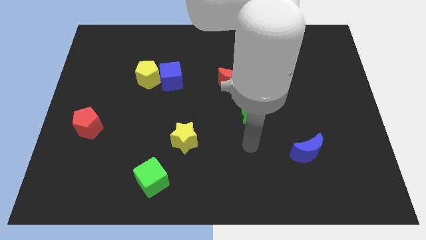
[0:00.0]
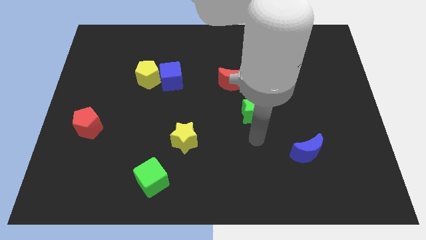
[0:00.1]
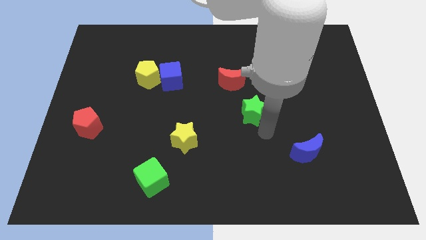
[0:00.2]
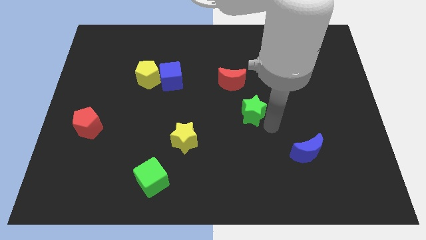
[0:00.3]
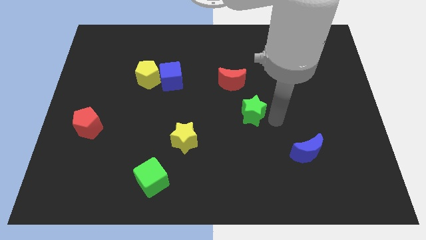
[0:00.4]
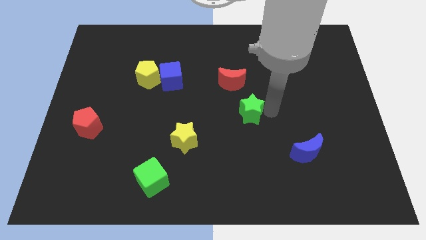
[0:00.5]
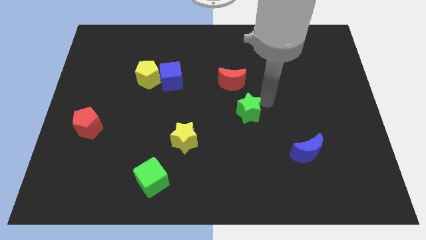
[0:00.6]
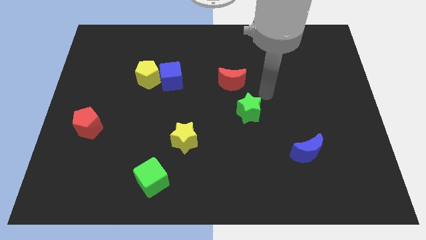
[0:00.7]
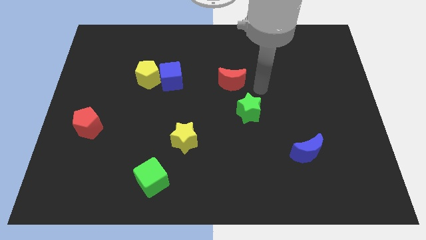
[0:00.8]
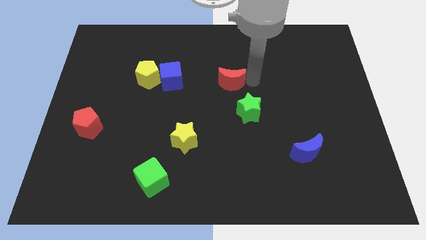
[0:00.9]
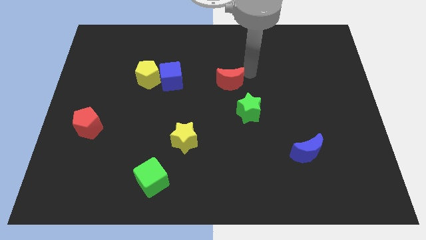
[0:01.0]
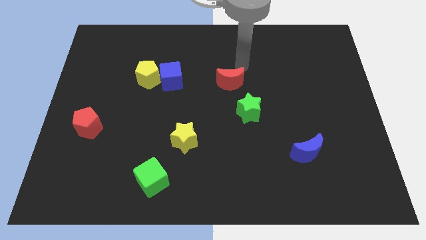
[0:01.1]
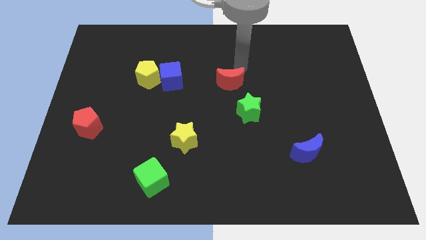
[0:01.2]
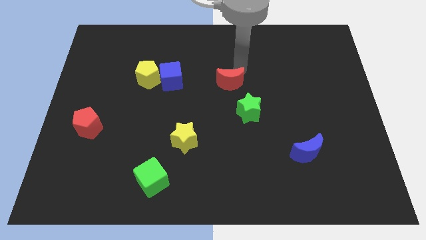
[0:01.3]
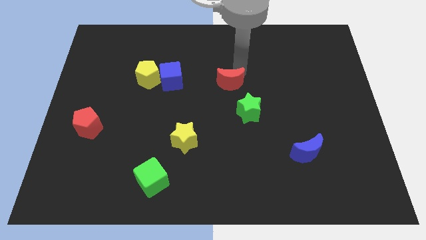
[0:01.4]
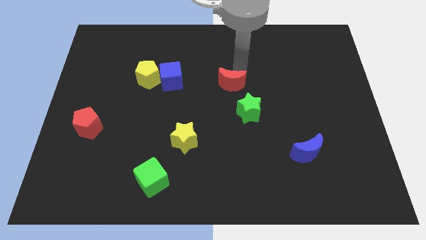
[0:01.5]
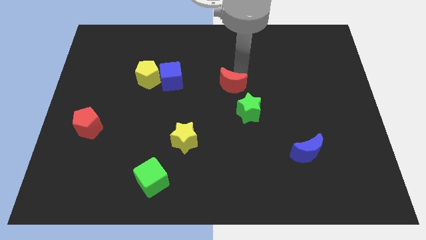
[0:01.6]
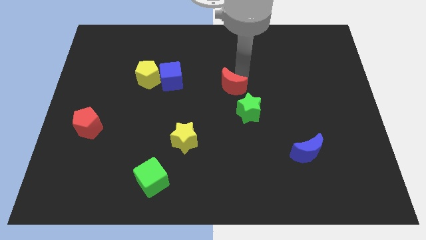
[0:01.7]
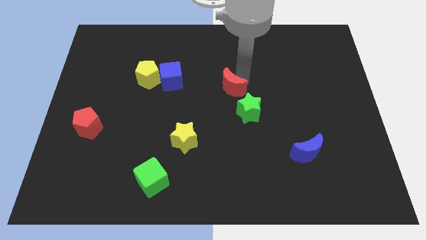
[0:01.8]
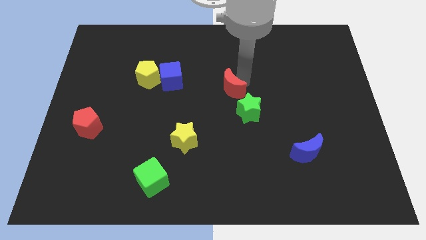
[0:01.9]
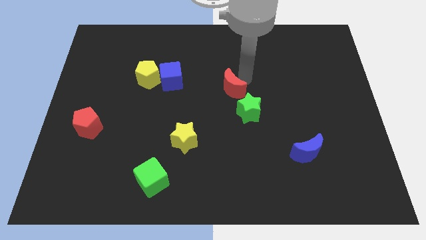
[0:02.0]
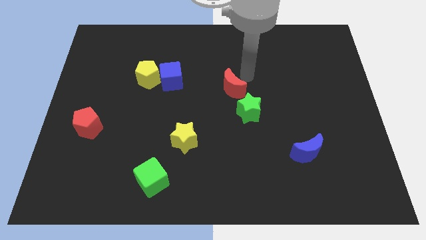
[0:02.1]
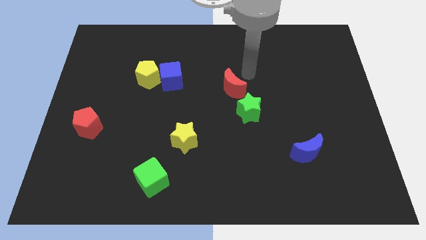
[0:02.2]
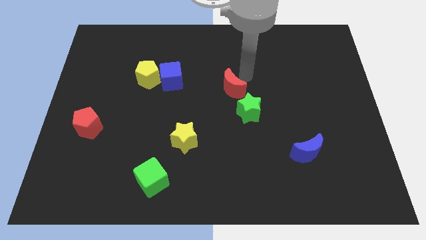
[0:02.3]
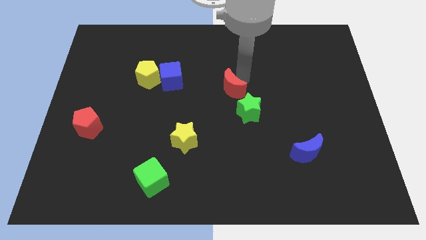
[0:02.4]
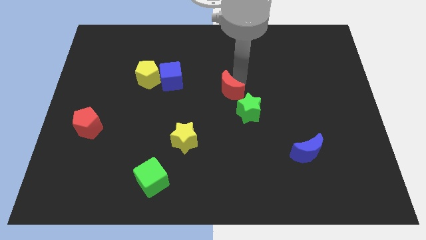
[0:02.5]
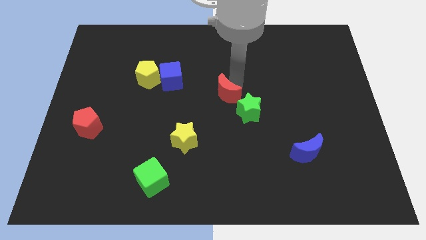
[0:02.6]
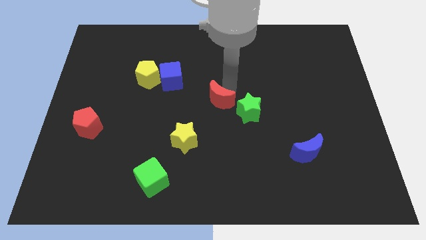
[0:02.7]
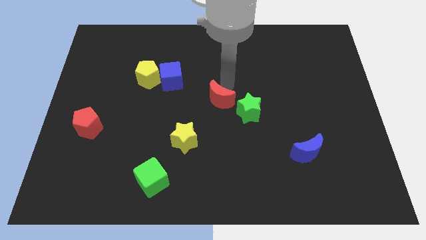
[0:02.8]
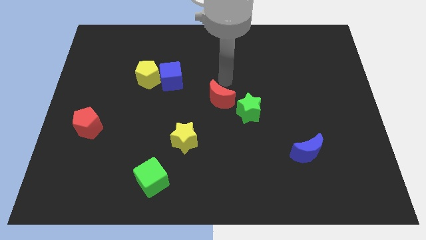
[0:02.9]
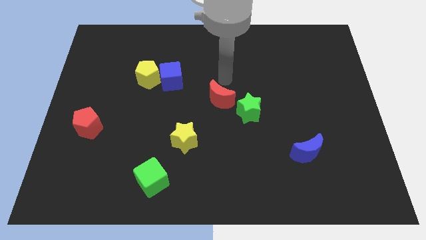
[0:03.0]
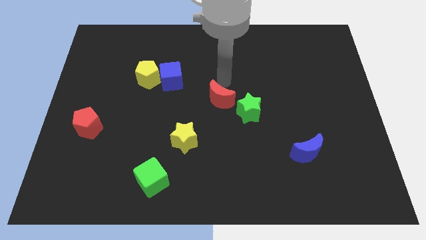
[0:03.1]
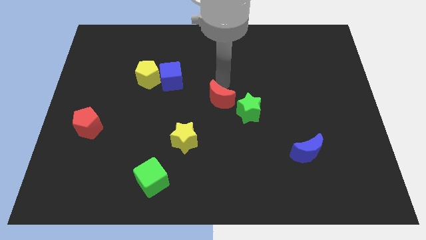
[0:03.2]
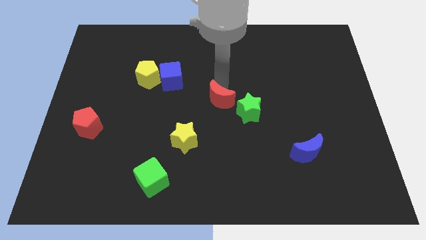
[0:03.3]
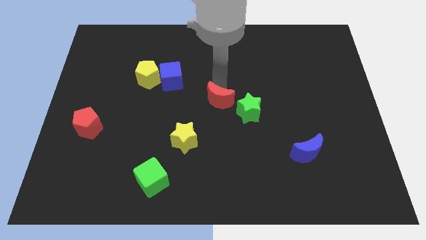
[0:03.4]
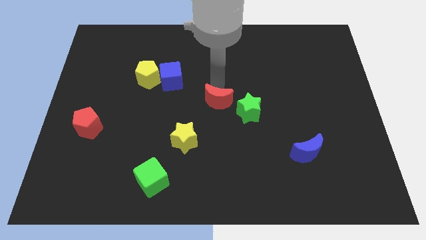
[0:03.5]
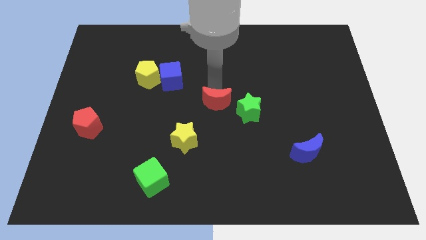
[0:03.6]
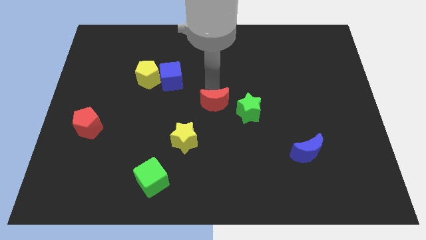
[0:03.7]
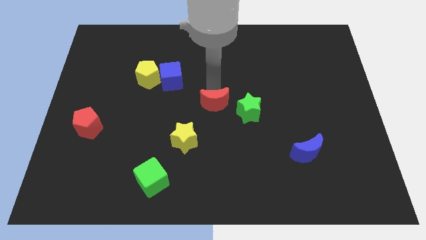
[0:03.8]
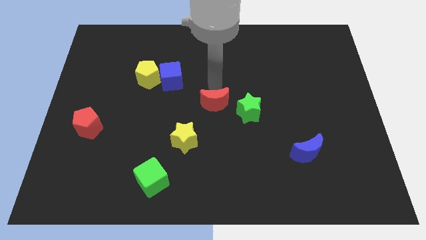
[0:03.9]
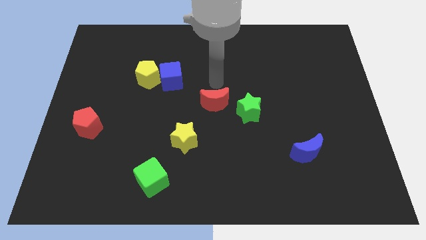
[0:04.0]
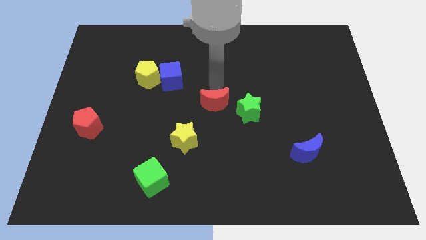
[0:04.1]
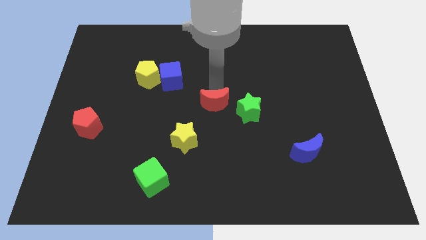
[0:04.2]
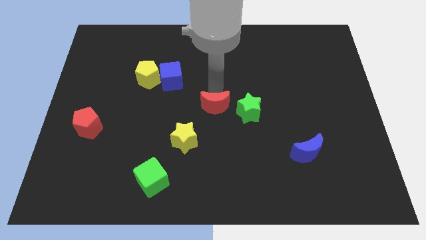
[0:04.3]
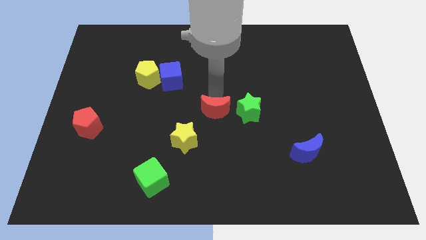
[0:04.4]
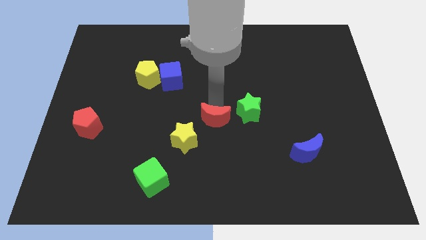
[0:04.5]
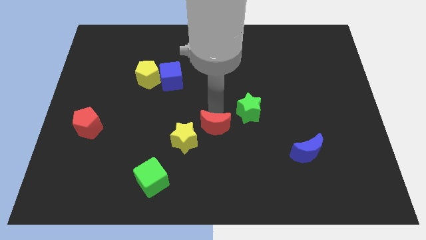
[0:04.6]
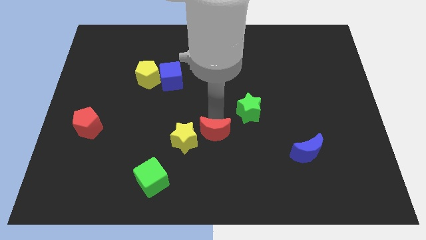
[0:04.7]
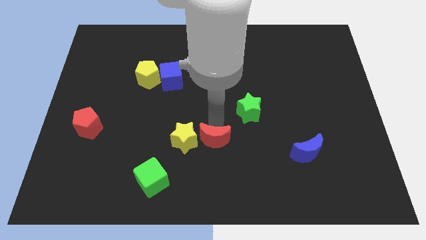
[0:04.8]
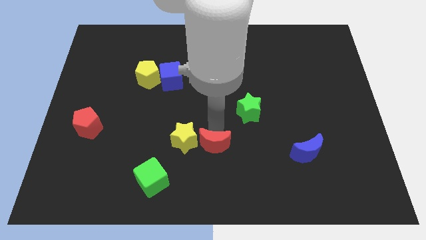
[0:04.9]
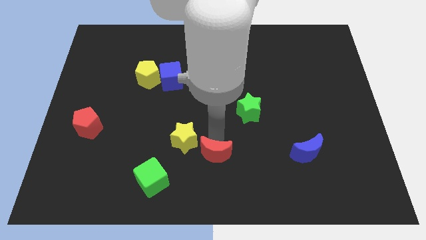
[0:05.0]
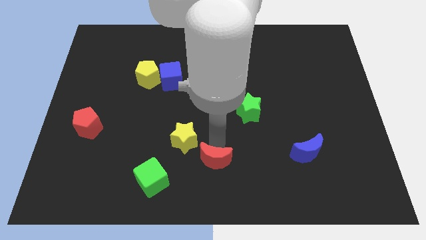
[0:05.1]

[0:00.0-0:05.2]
slide the red moon right of the green cube

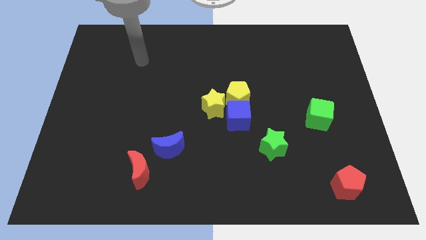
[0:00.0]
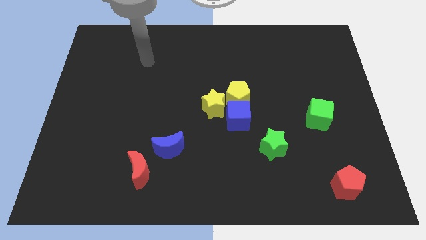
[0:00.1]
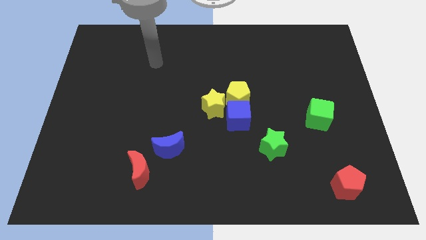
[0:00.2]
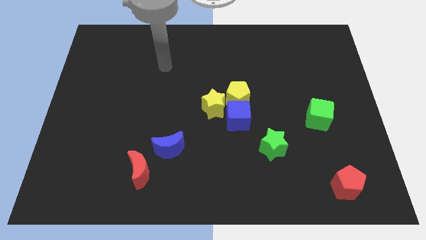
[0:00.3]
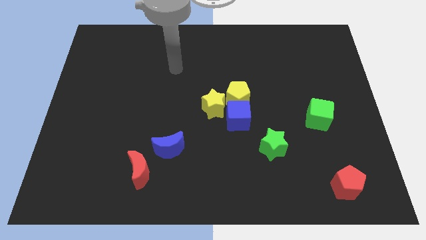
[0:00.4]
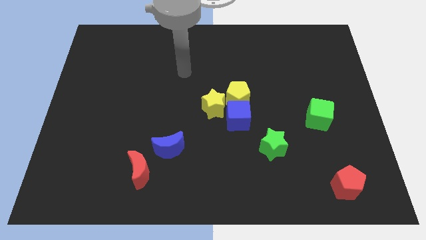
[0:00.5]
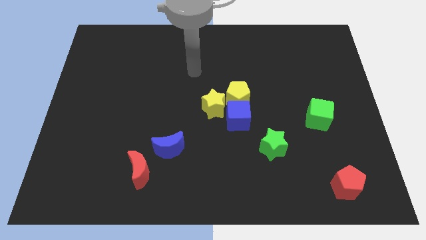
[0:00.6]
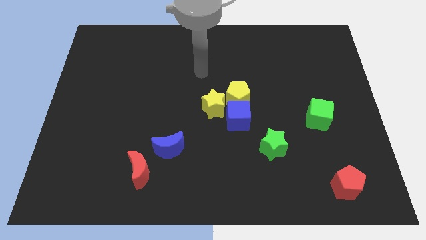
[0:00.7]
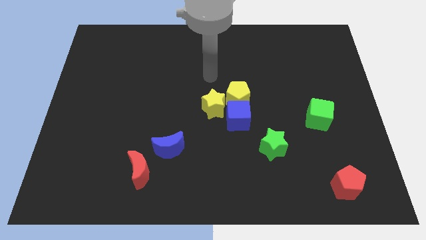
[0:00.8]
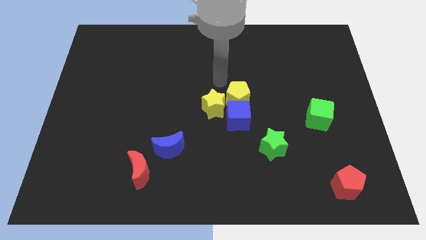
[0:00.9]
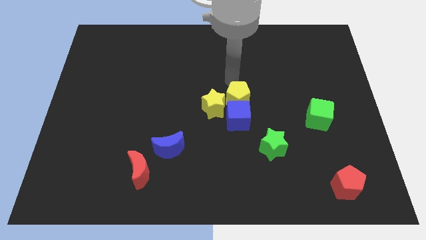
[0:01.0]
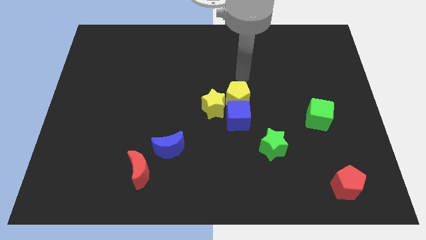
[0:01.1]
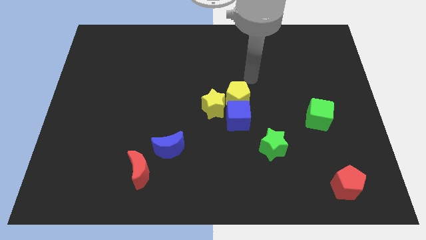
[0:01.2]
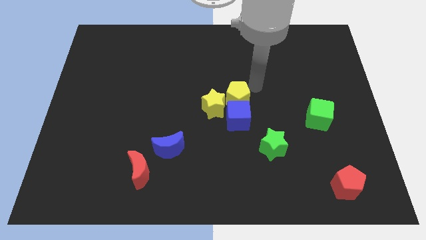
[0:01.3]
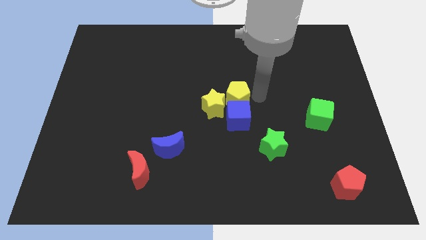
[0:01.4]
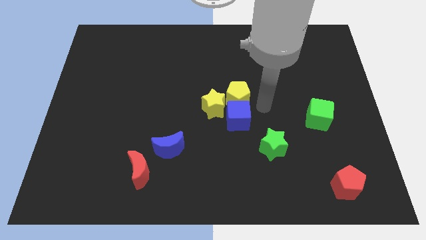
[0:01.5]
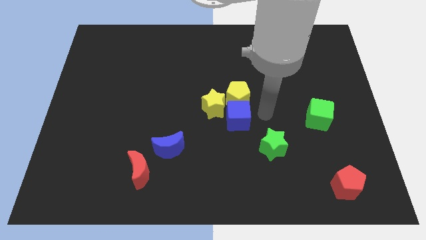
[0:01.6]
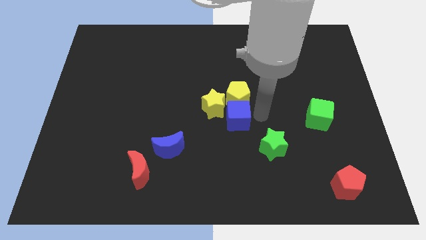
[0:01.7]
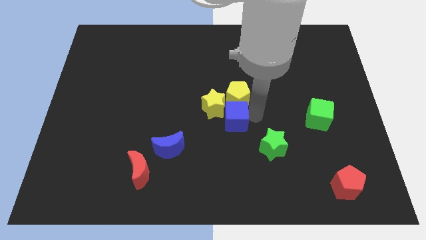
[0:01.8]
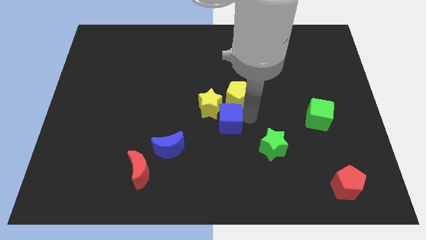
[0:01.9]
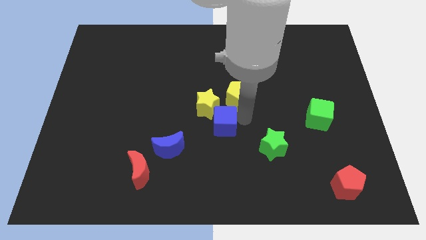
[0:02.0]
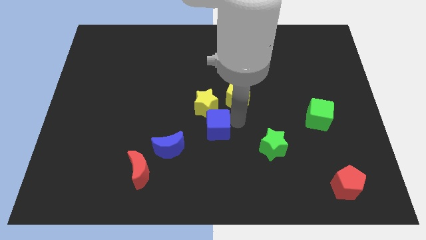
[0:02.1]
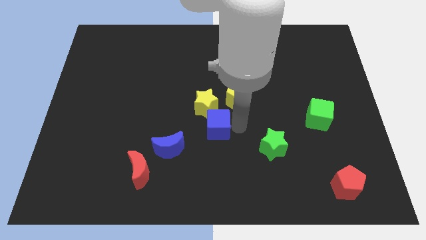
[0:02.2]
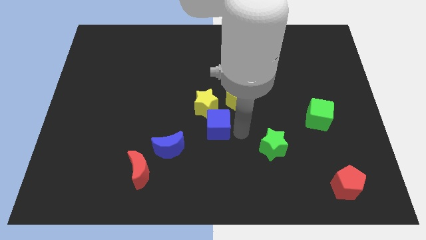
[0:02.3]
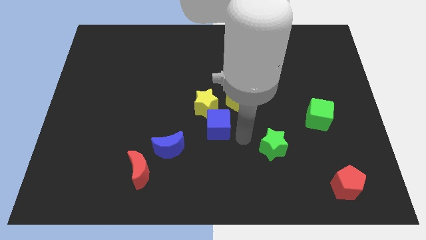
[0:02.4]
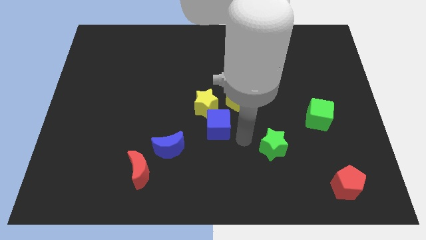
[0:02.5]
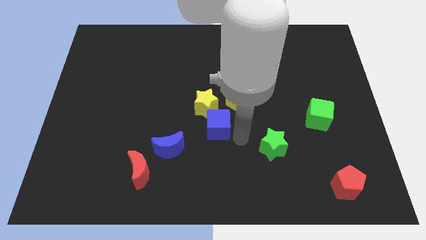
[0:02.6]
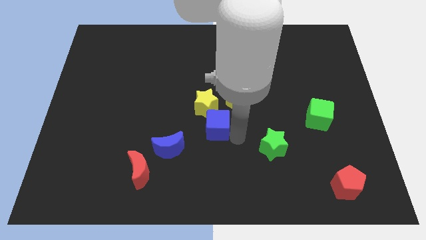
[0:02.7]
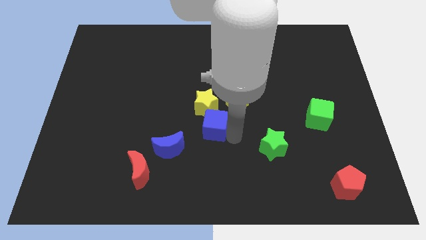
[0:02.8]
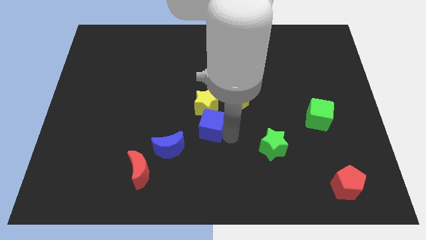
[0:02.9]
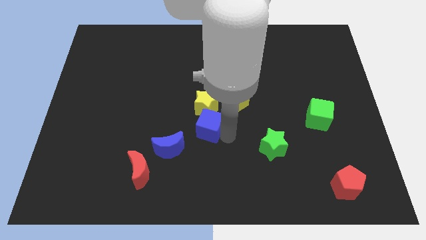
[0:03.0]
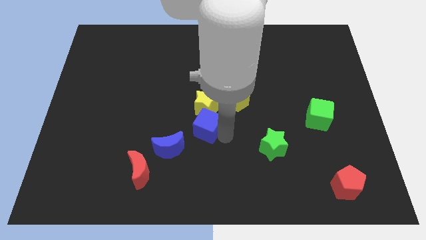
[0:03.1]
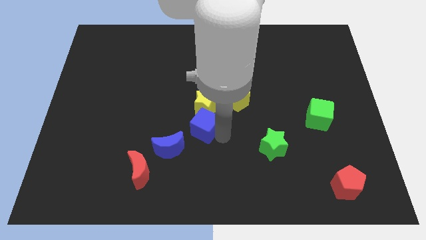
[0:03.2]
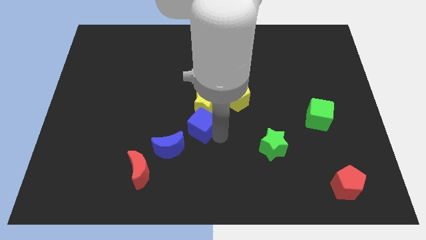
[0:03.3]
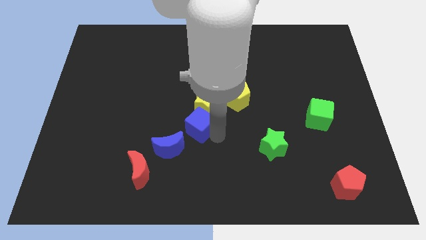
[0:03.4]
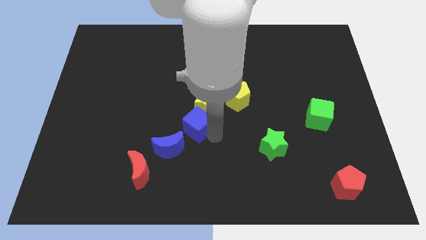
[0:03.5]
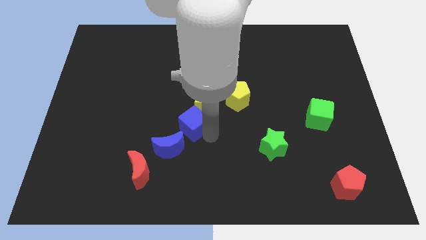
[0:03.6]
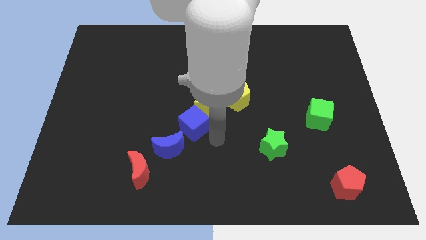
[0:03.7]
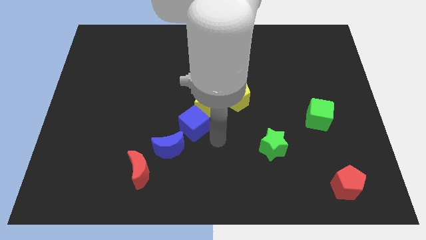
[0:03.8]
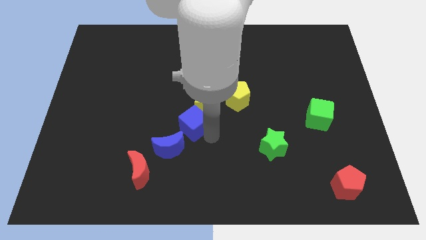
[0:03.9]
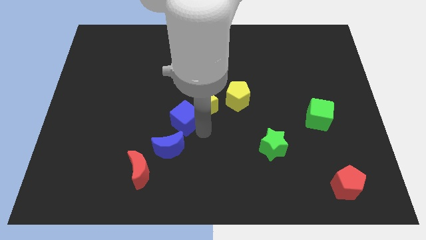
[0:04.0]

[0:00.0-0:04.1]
move the blue cube just left of the yellow star
